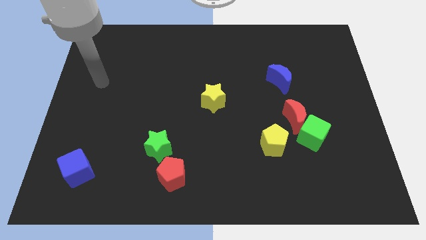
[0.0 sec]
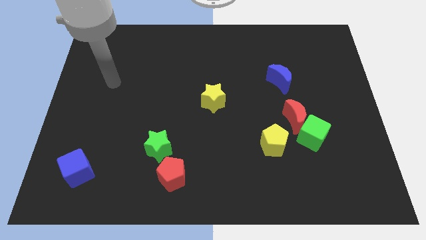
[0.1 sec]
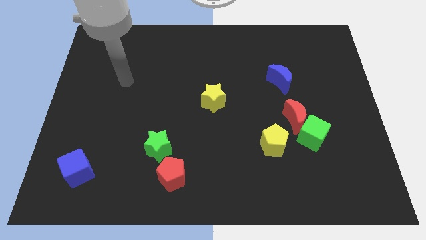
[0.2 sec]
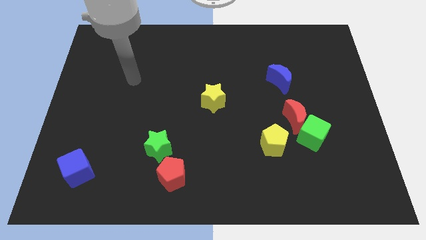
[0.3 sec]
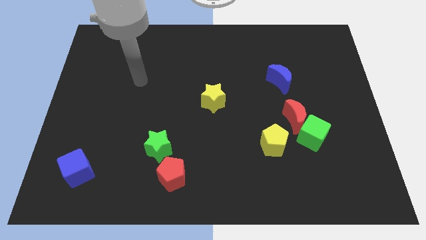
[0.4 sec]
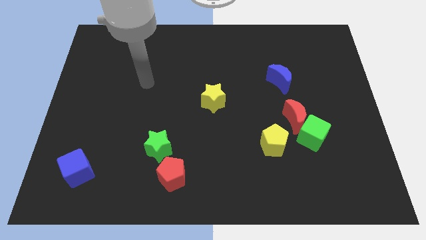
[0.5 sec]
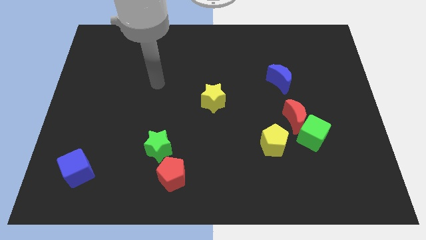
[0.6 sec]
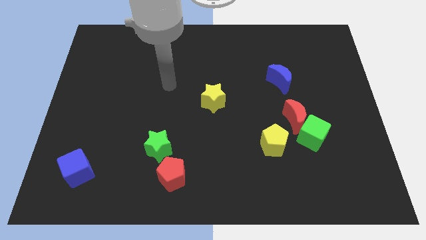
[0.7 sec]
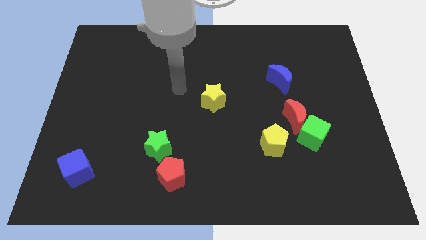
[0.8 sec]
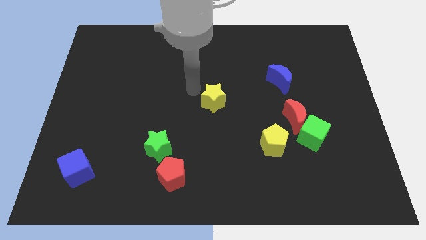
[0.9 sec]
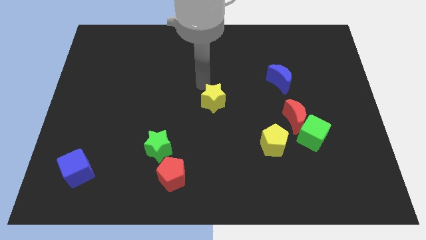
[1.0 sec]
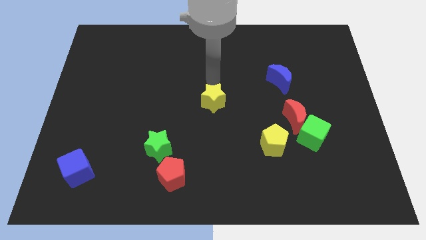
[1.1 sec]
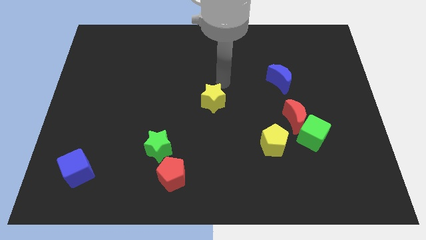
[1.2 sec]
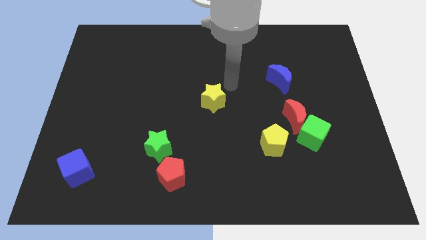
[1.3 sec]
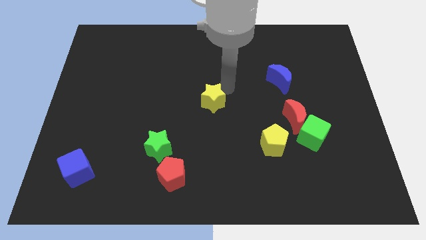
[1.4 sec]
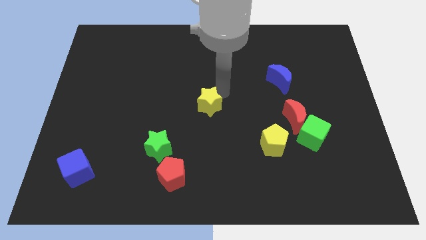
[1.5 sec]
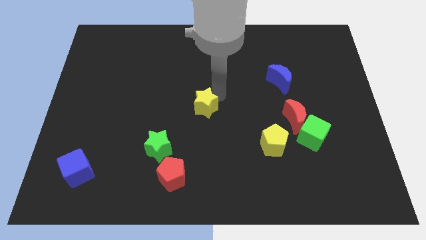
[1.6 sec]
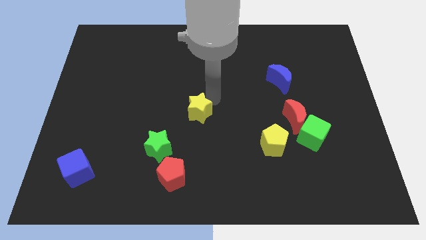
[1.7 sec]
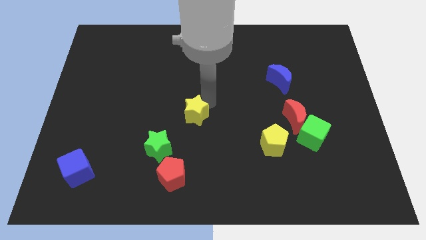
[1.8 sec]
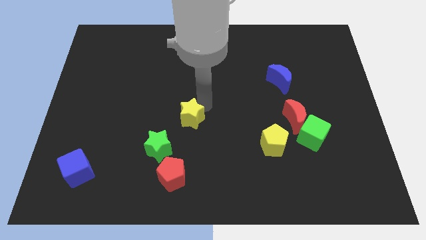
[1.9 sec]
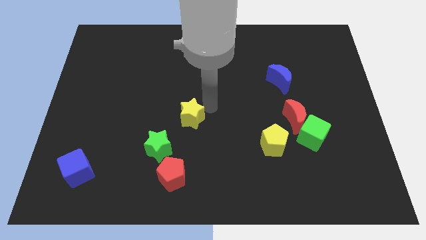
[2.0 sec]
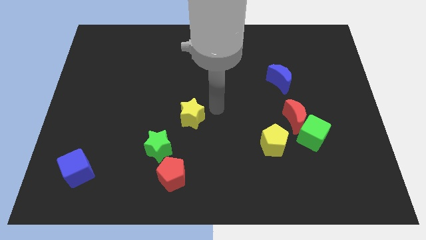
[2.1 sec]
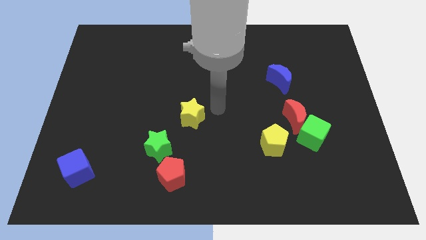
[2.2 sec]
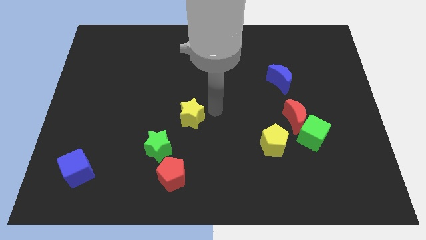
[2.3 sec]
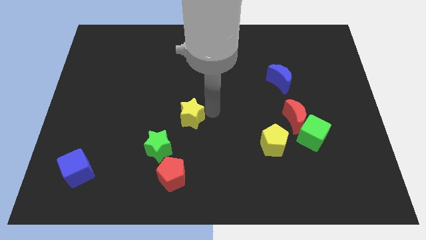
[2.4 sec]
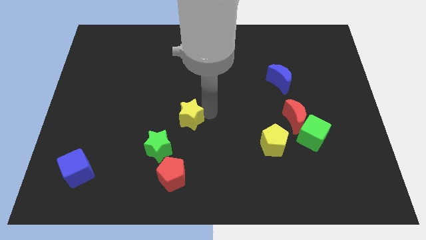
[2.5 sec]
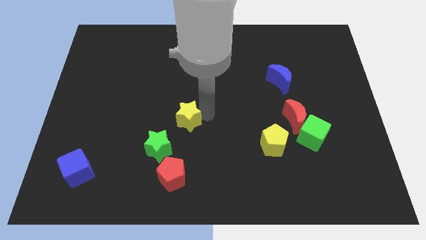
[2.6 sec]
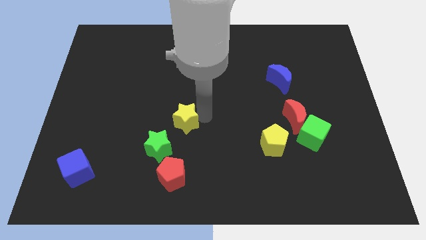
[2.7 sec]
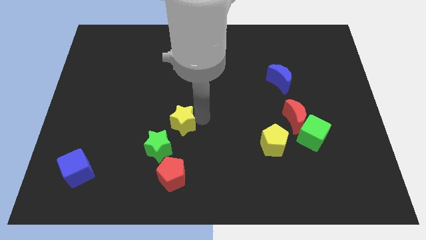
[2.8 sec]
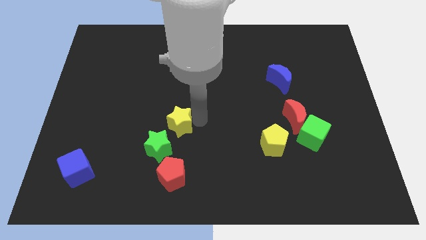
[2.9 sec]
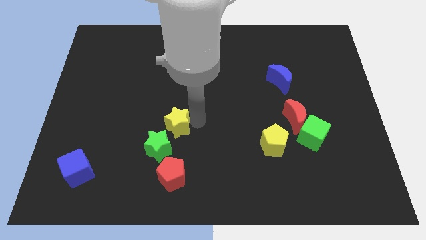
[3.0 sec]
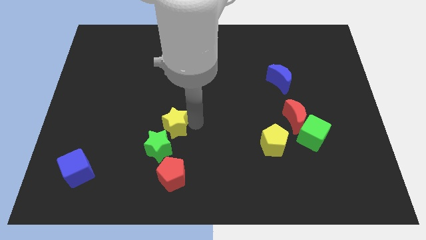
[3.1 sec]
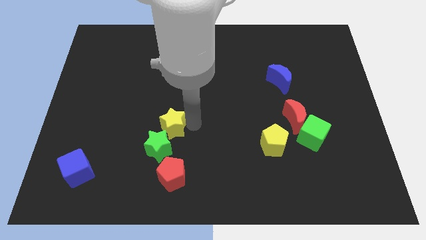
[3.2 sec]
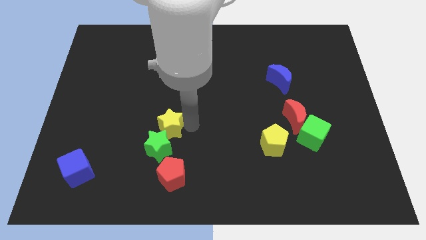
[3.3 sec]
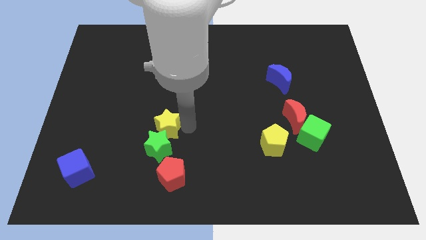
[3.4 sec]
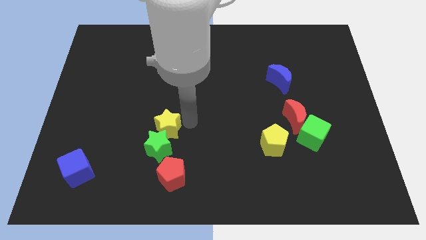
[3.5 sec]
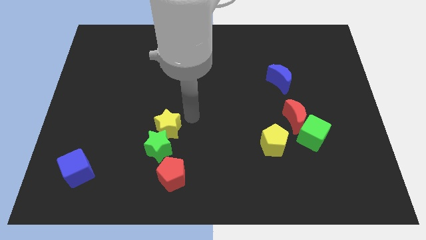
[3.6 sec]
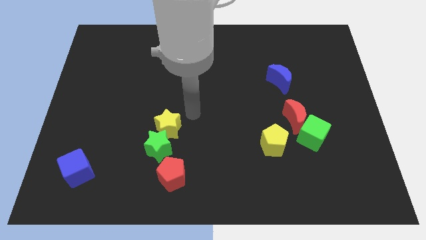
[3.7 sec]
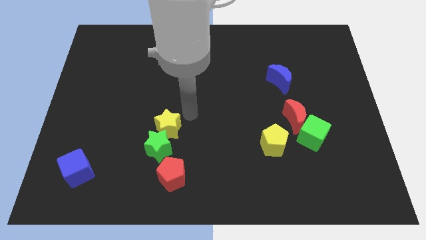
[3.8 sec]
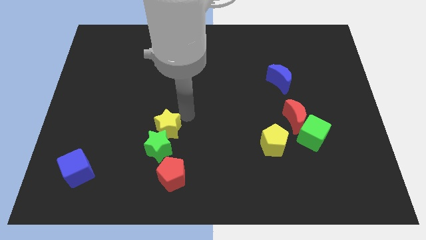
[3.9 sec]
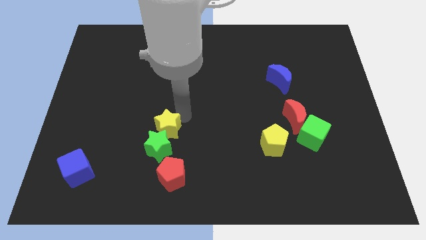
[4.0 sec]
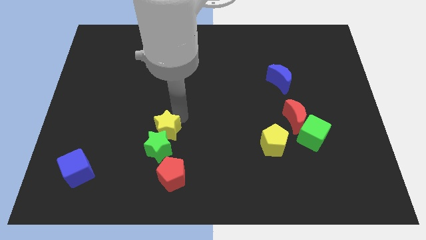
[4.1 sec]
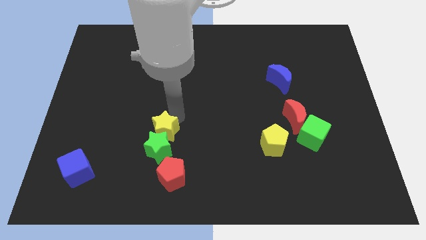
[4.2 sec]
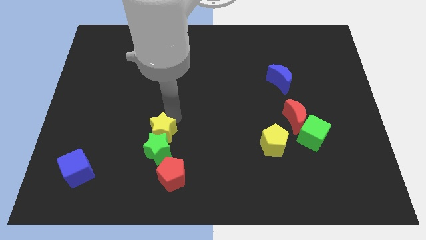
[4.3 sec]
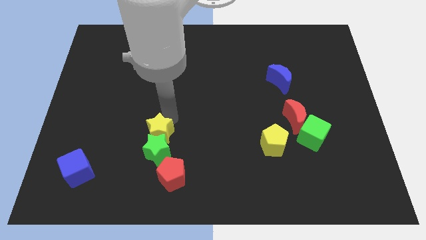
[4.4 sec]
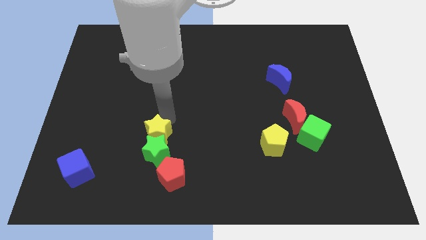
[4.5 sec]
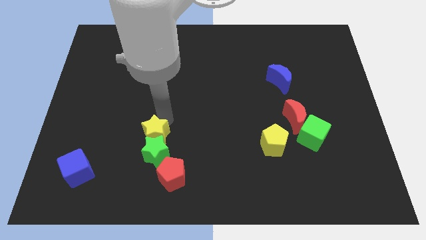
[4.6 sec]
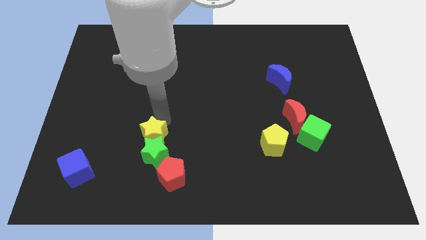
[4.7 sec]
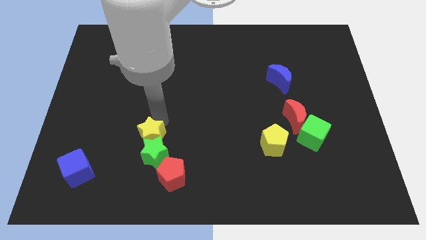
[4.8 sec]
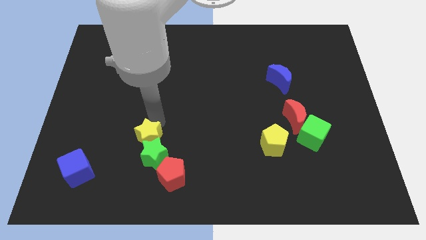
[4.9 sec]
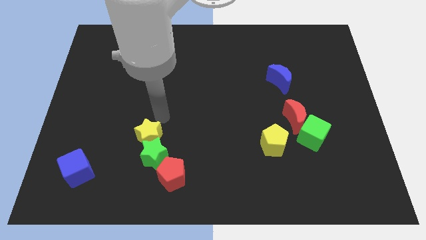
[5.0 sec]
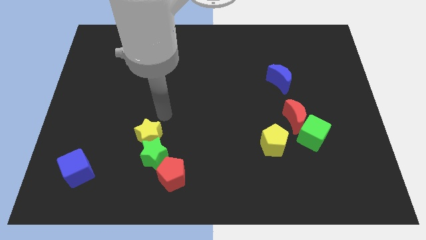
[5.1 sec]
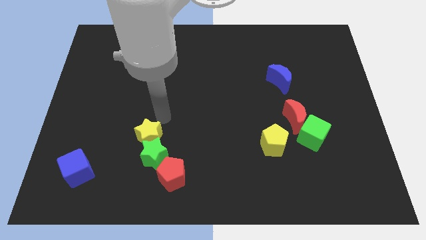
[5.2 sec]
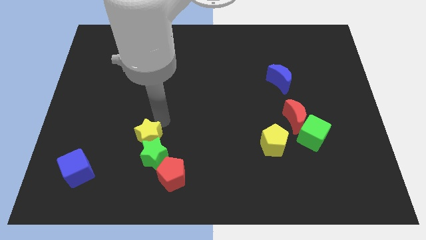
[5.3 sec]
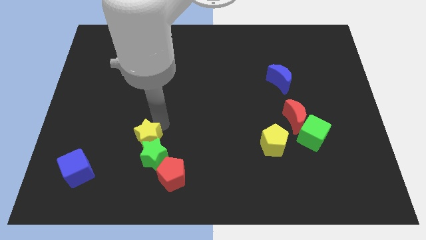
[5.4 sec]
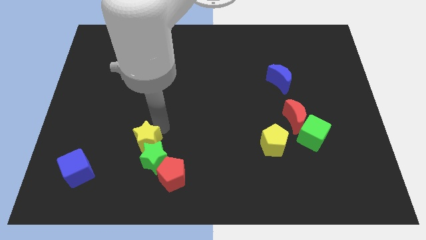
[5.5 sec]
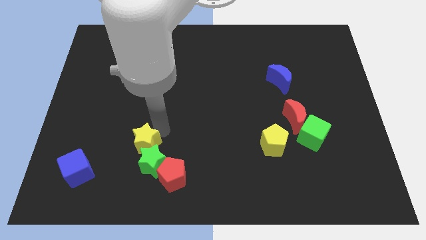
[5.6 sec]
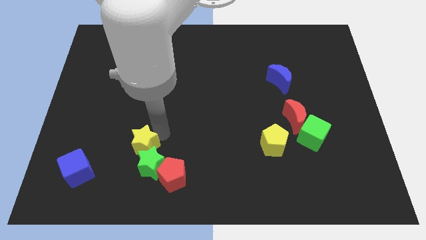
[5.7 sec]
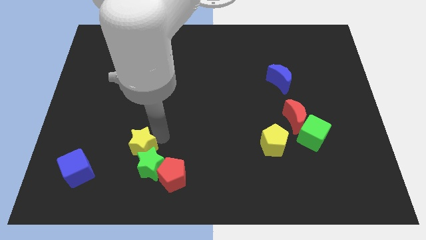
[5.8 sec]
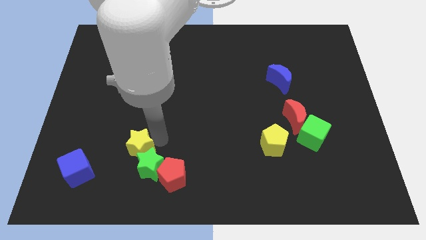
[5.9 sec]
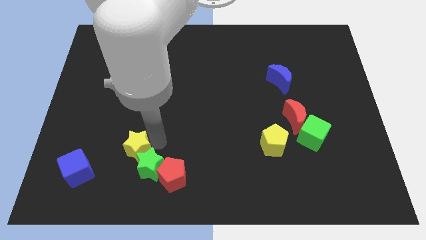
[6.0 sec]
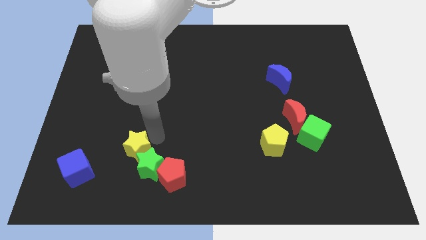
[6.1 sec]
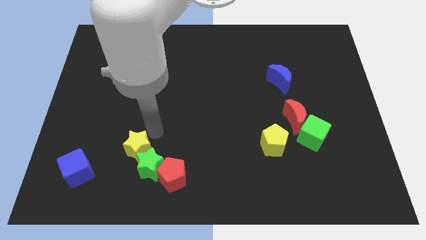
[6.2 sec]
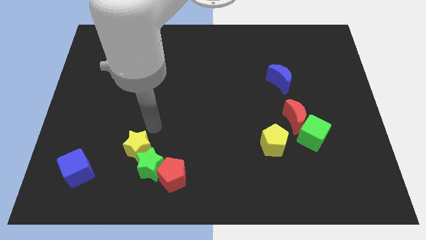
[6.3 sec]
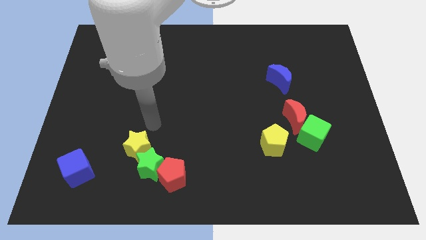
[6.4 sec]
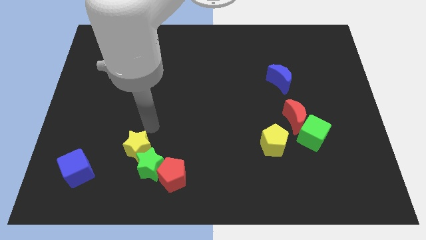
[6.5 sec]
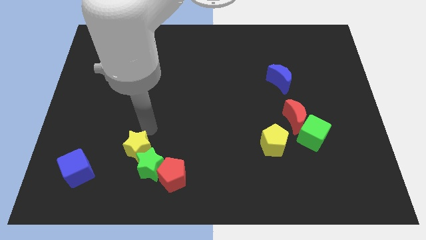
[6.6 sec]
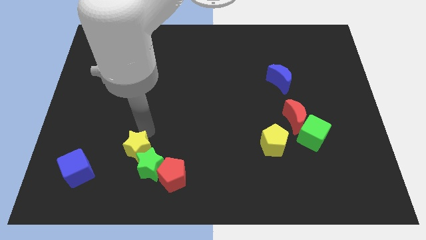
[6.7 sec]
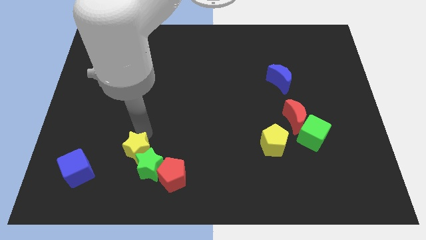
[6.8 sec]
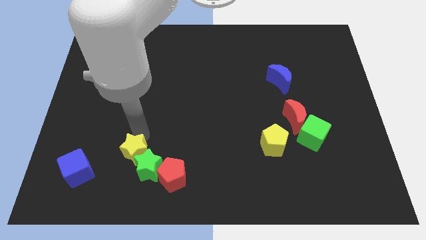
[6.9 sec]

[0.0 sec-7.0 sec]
move the yellow star to the right of the blue cube
